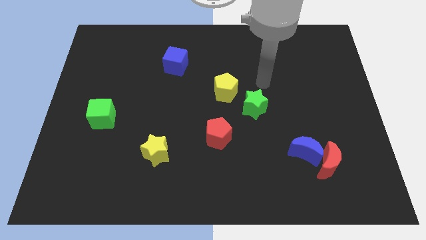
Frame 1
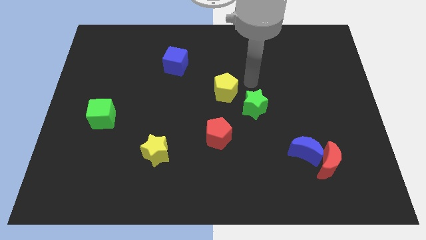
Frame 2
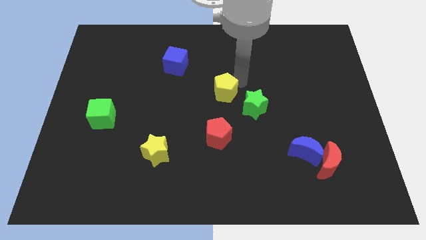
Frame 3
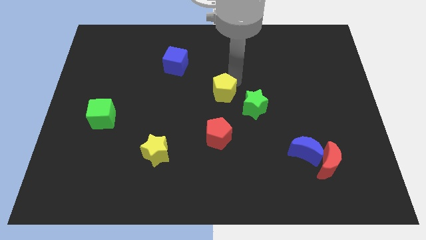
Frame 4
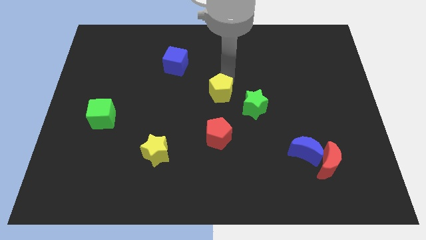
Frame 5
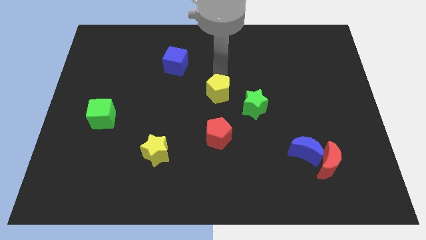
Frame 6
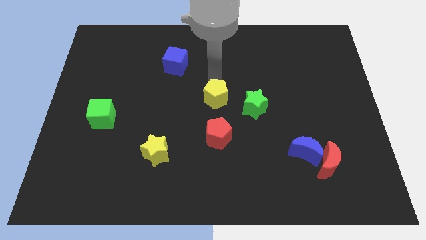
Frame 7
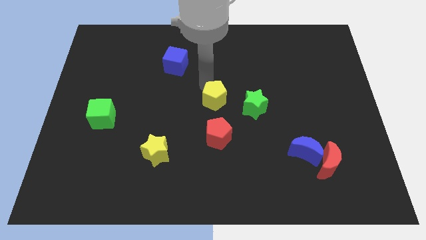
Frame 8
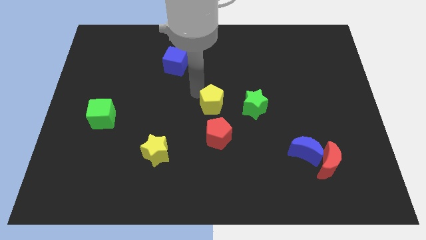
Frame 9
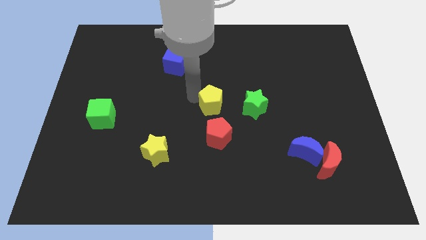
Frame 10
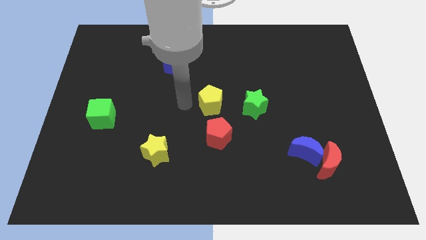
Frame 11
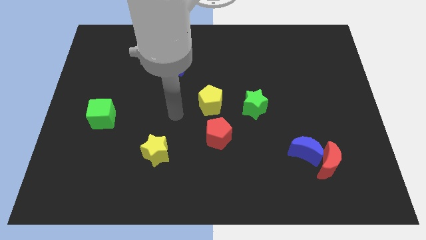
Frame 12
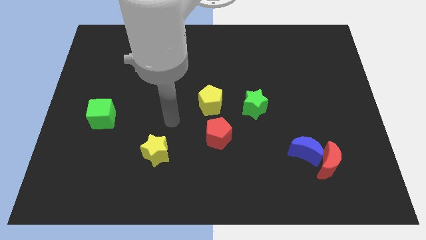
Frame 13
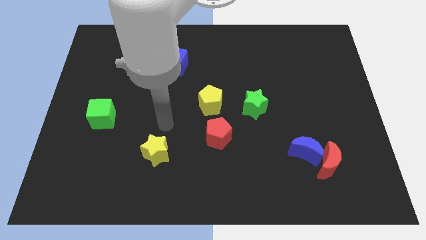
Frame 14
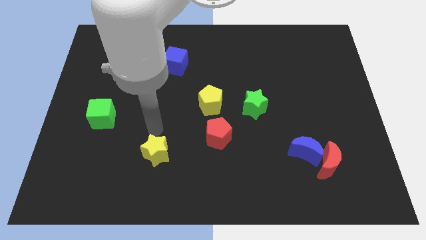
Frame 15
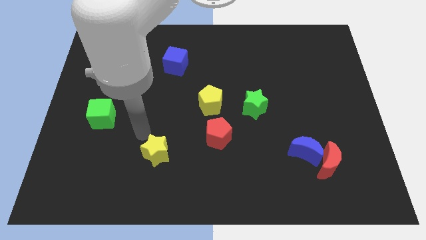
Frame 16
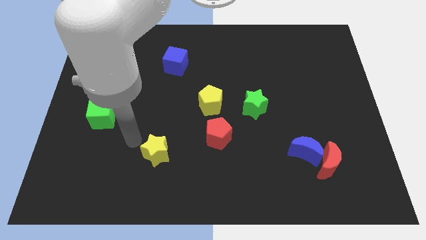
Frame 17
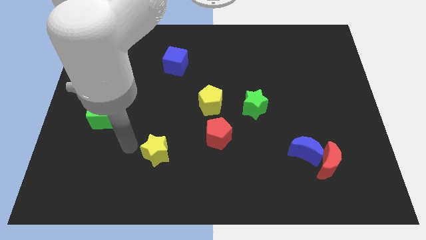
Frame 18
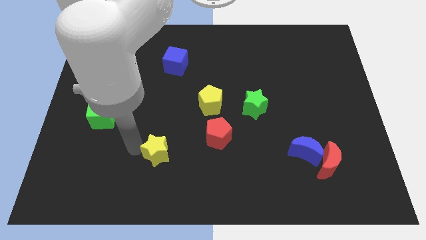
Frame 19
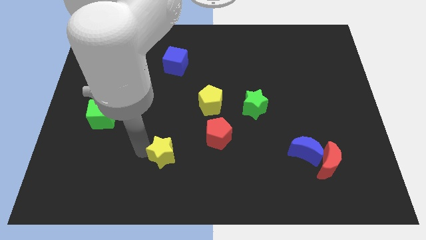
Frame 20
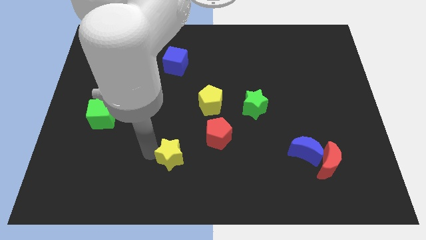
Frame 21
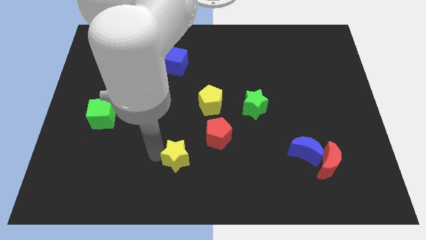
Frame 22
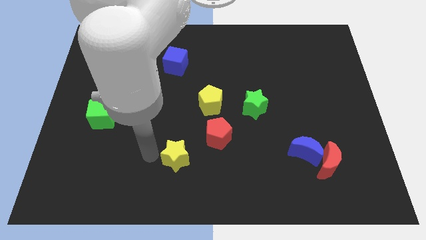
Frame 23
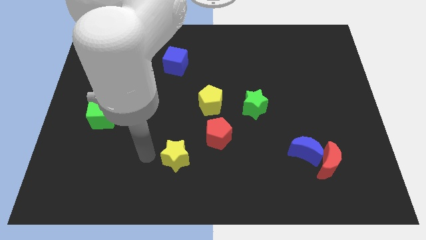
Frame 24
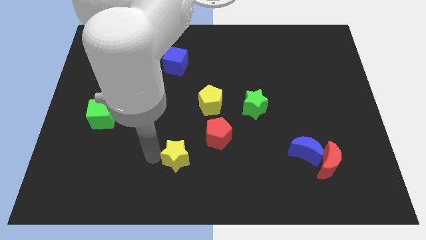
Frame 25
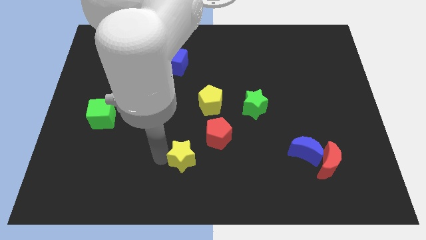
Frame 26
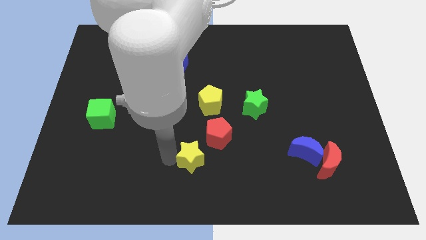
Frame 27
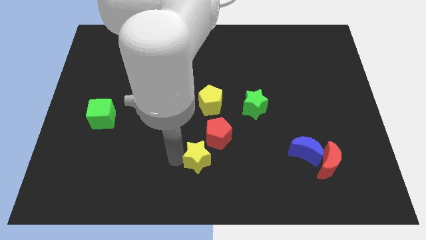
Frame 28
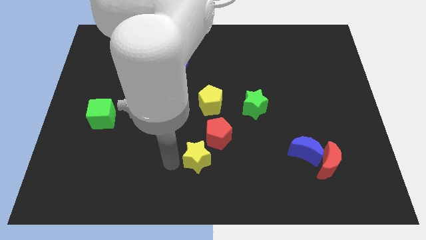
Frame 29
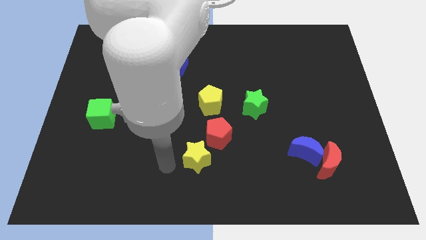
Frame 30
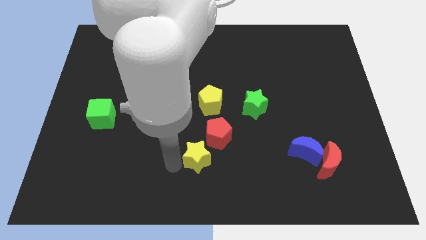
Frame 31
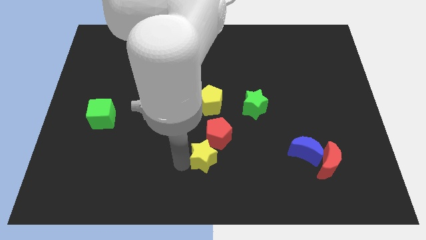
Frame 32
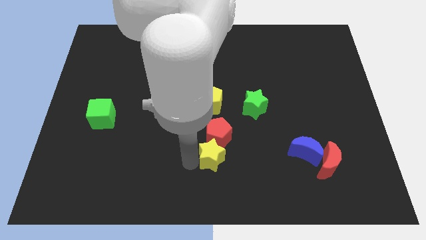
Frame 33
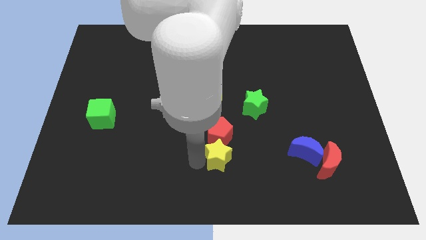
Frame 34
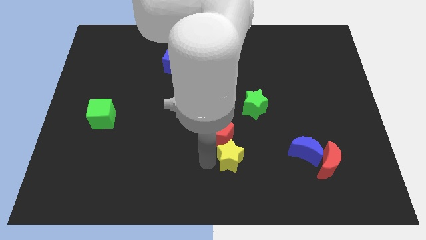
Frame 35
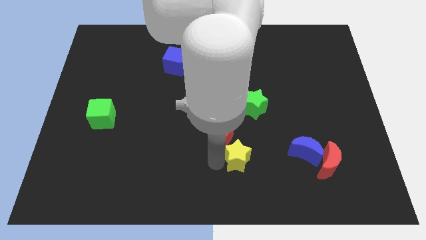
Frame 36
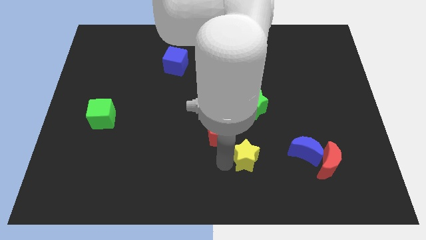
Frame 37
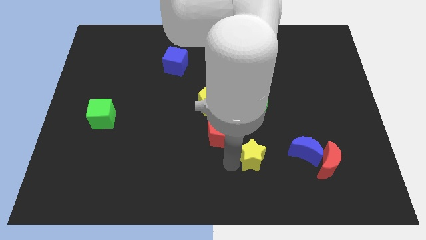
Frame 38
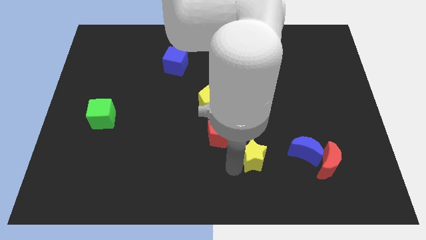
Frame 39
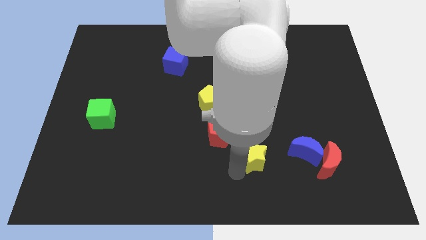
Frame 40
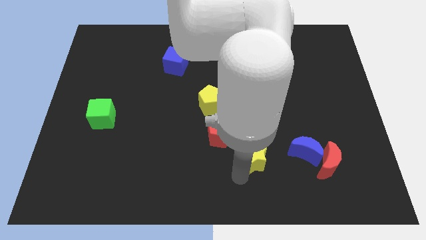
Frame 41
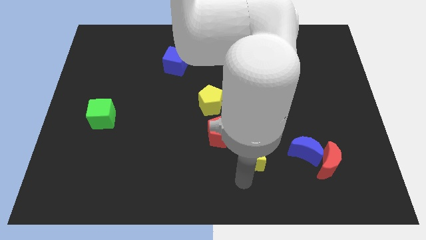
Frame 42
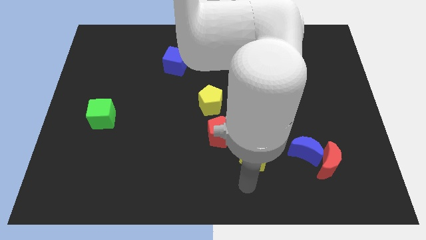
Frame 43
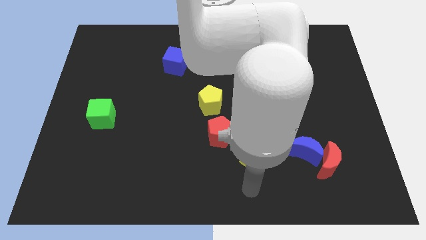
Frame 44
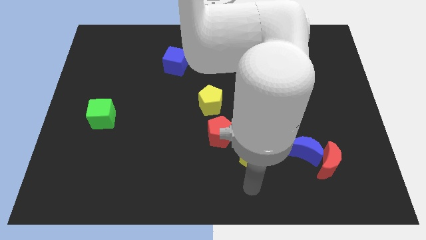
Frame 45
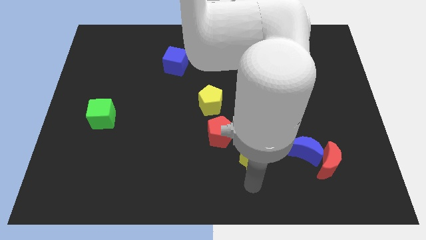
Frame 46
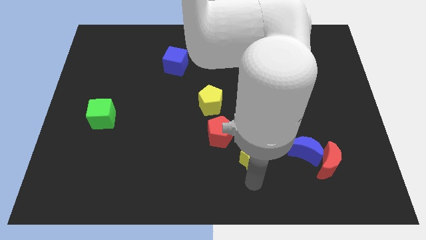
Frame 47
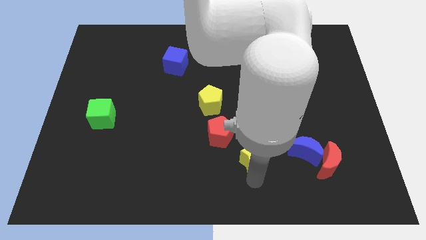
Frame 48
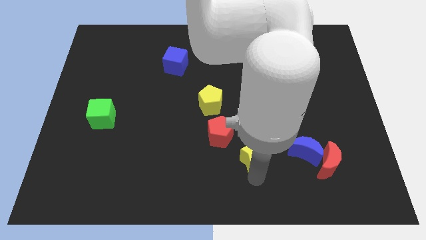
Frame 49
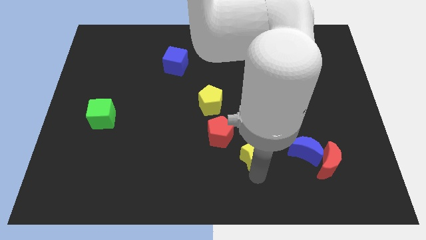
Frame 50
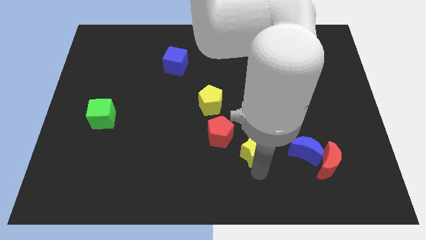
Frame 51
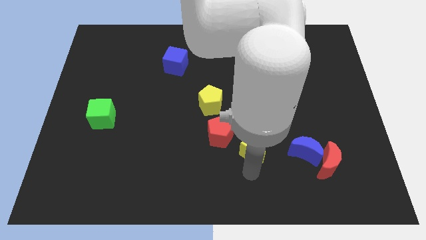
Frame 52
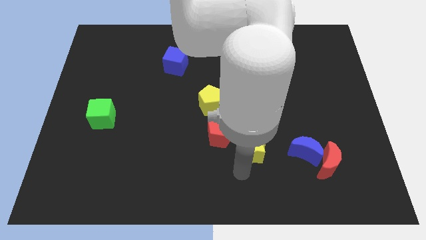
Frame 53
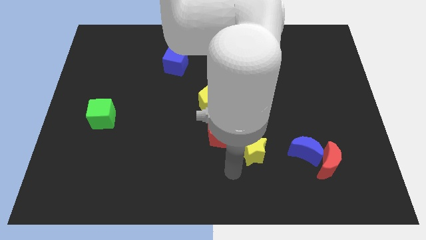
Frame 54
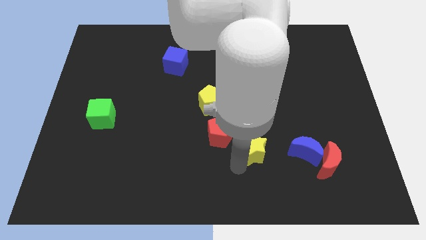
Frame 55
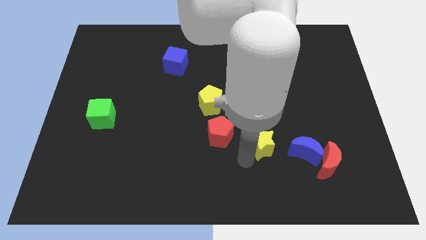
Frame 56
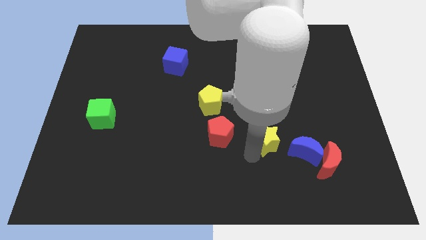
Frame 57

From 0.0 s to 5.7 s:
slide the yellow star to the top left of the blue moon

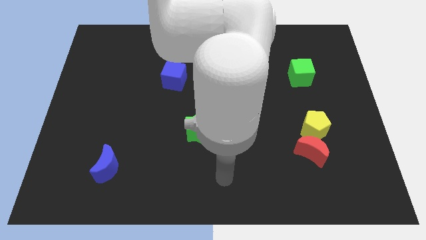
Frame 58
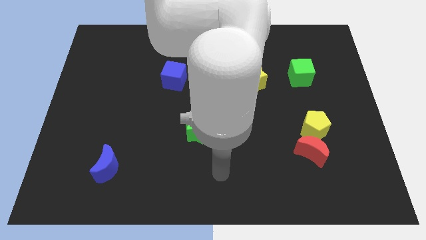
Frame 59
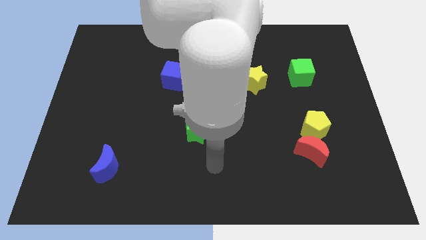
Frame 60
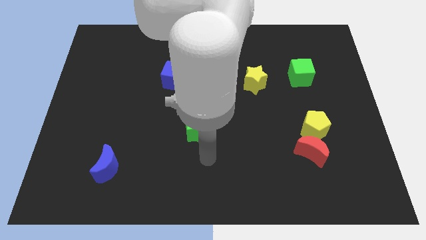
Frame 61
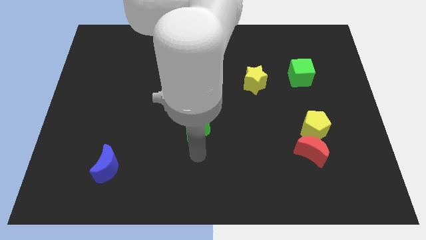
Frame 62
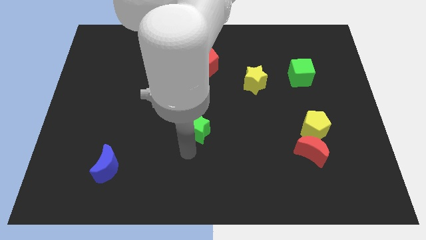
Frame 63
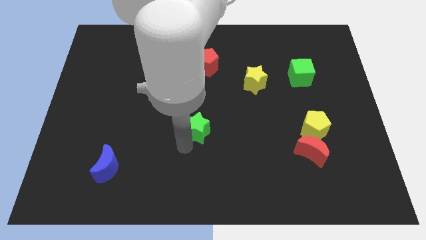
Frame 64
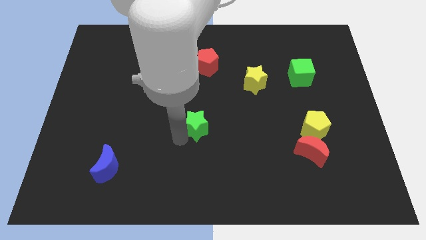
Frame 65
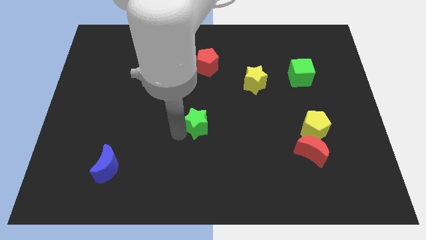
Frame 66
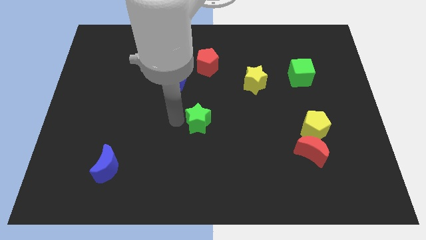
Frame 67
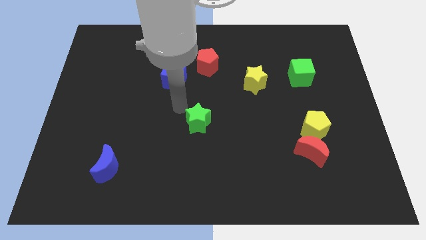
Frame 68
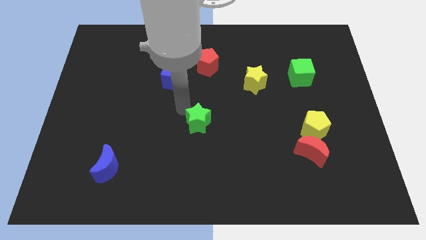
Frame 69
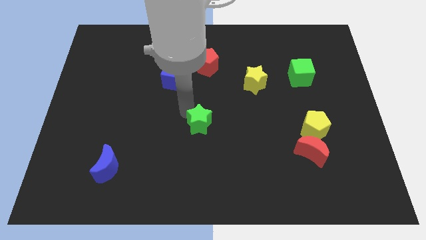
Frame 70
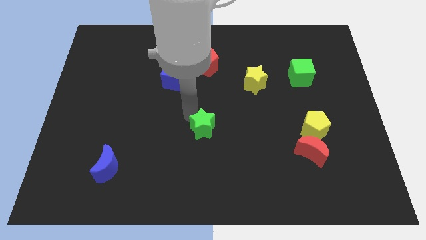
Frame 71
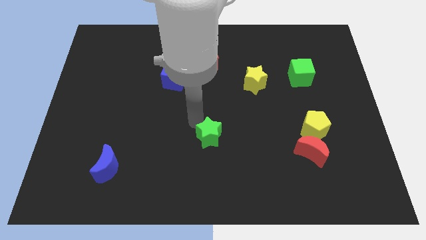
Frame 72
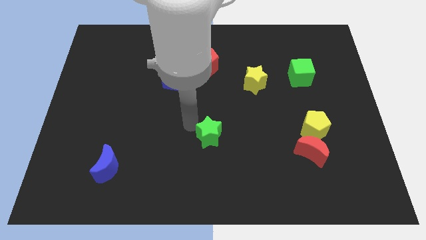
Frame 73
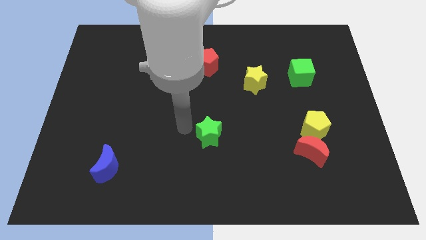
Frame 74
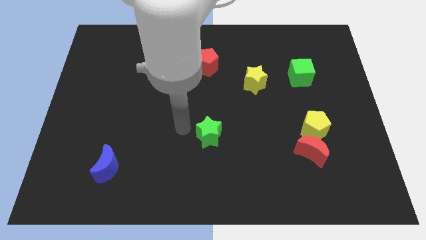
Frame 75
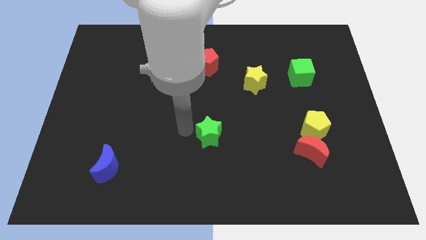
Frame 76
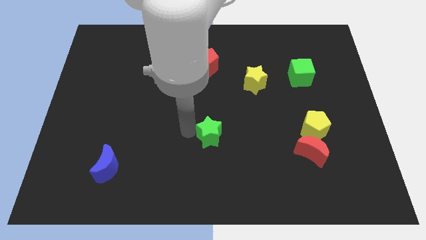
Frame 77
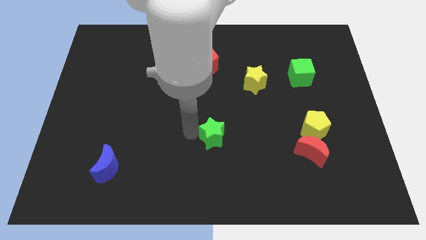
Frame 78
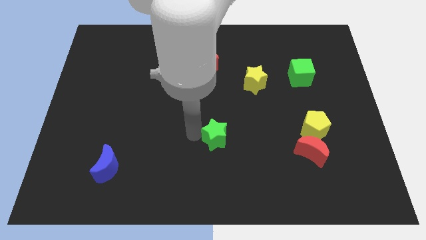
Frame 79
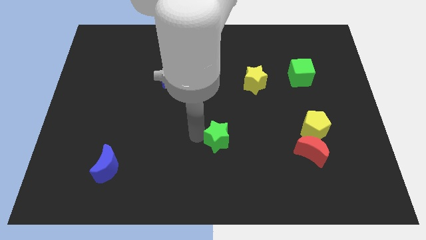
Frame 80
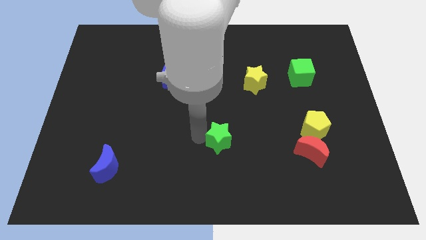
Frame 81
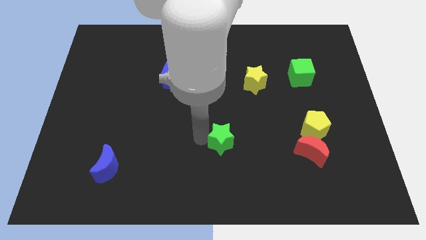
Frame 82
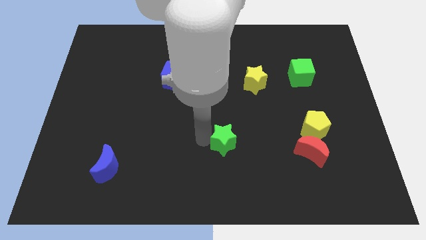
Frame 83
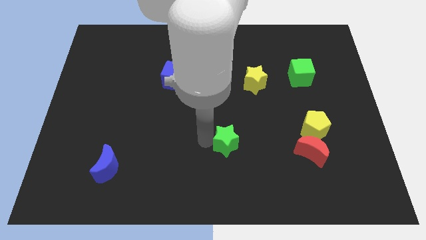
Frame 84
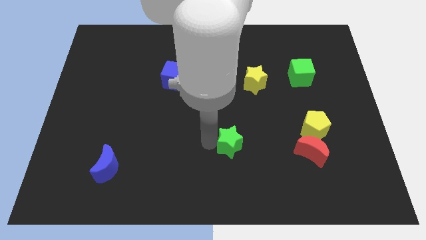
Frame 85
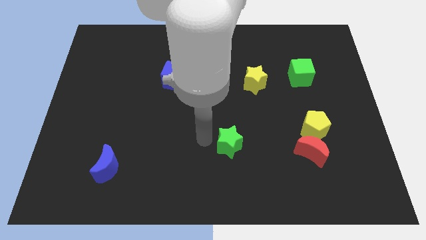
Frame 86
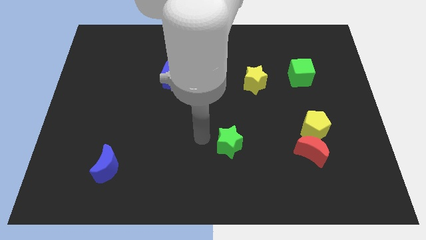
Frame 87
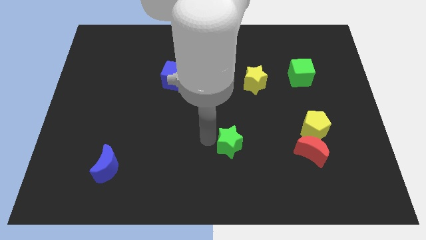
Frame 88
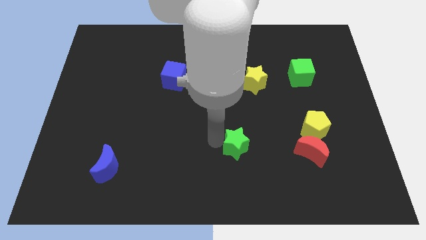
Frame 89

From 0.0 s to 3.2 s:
move the green star left of the red moon

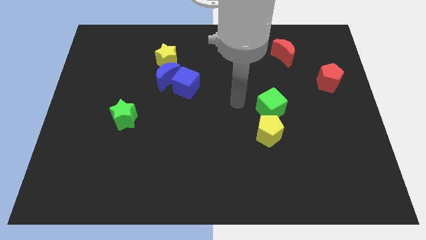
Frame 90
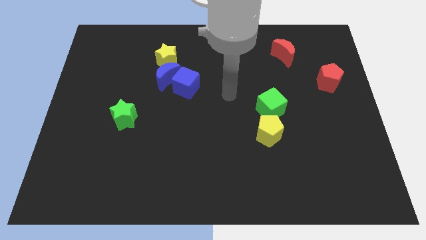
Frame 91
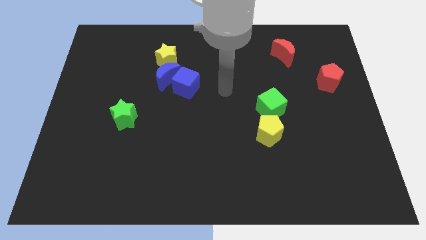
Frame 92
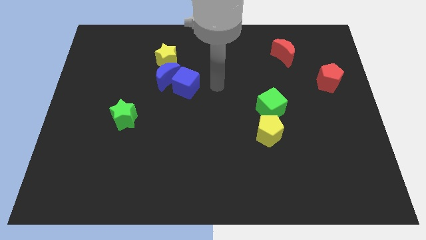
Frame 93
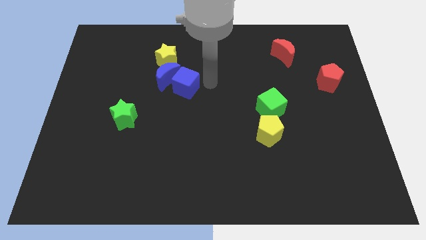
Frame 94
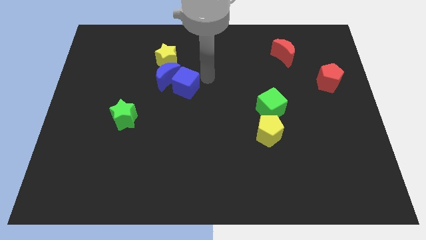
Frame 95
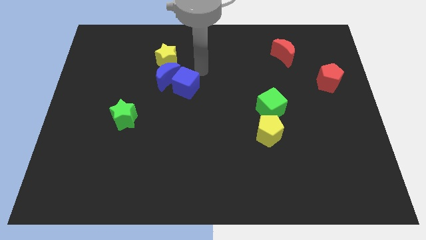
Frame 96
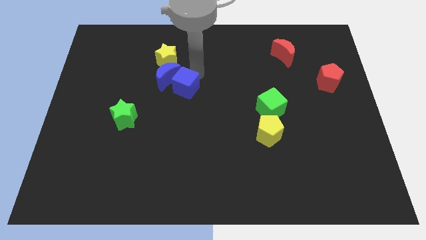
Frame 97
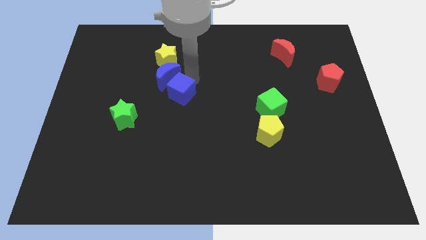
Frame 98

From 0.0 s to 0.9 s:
put the blue cube below the blue moon
